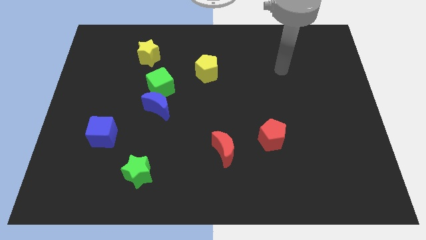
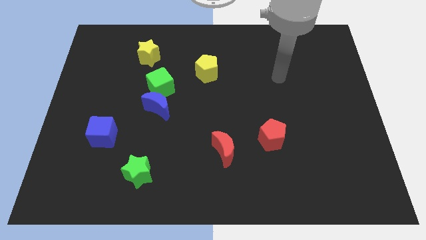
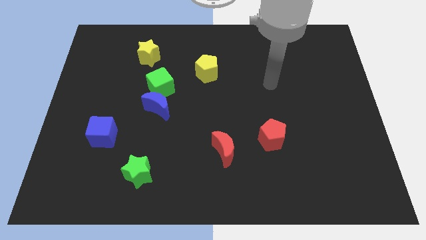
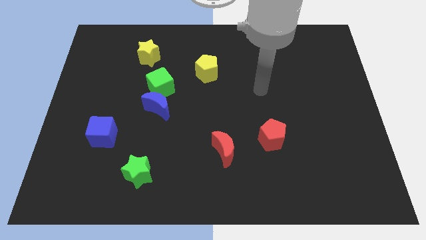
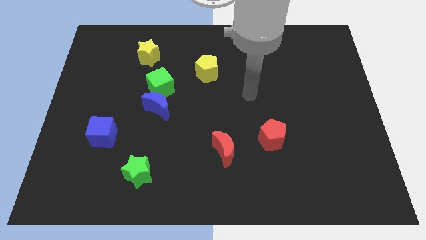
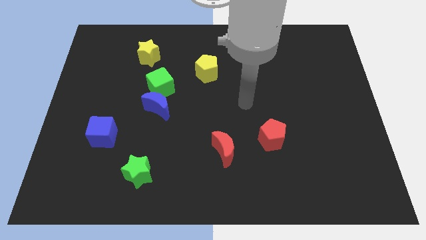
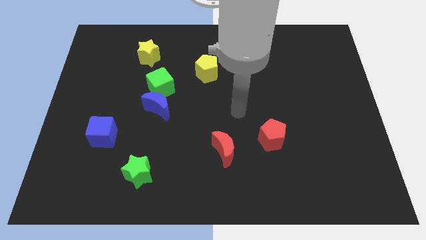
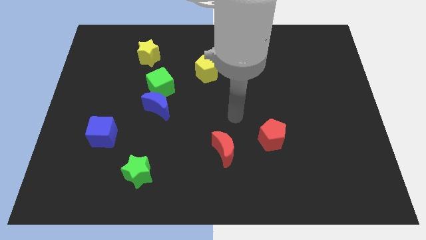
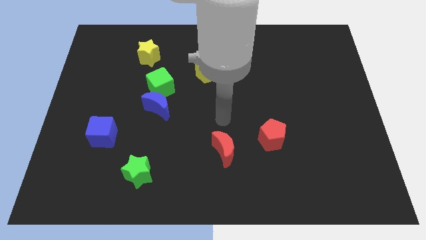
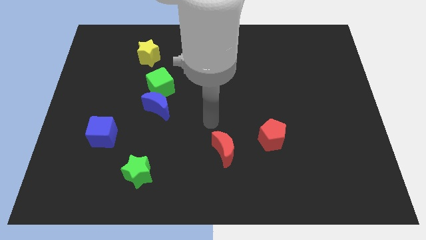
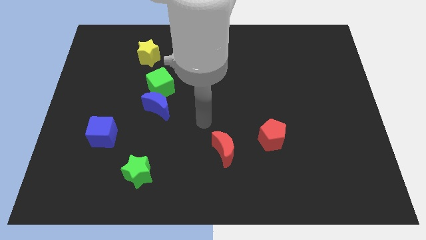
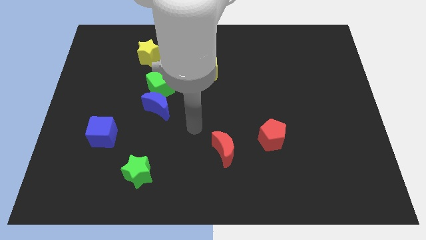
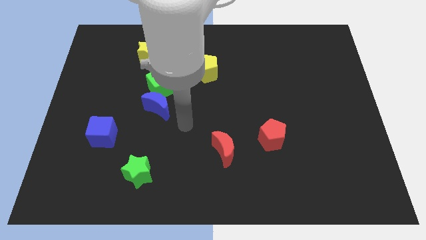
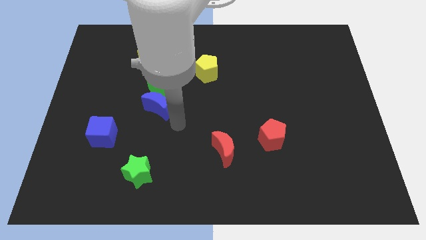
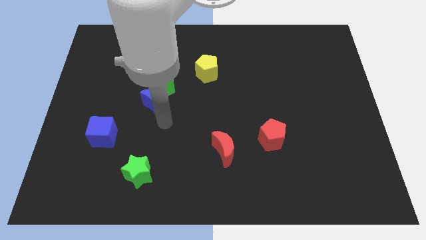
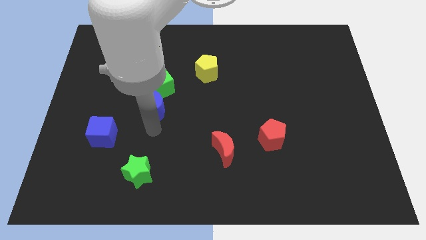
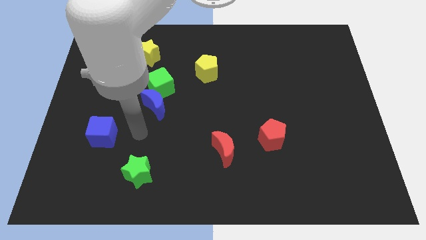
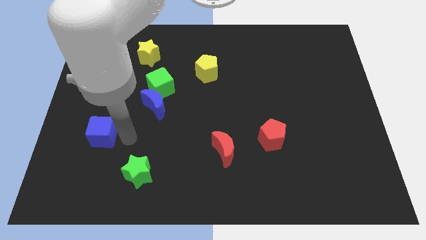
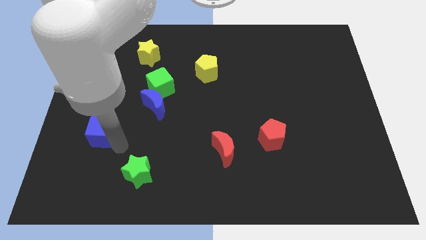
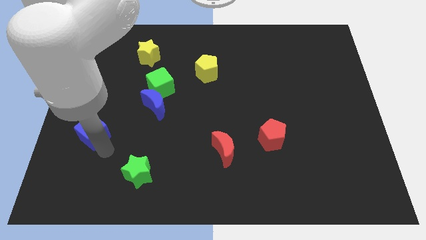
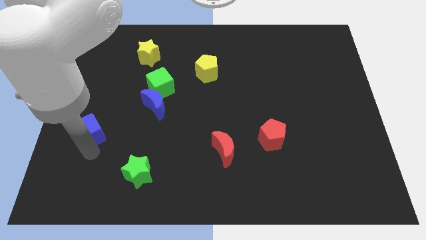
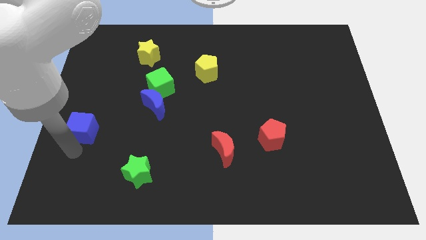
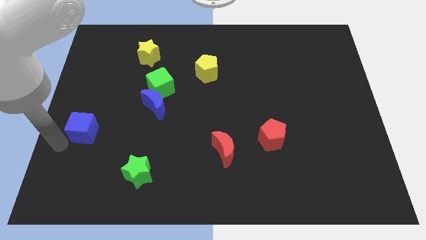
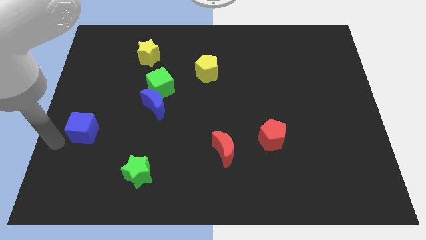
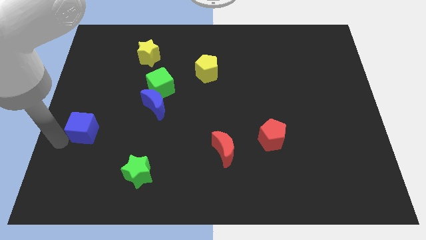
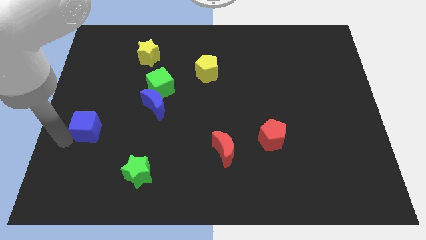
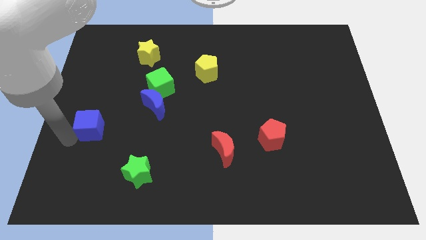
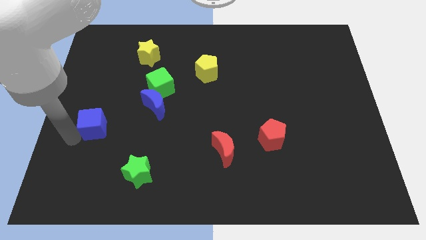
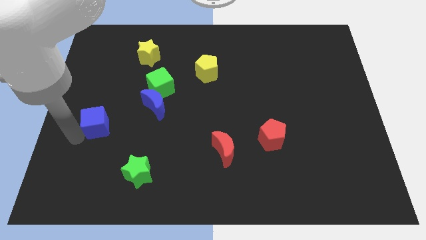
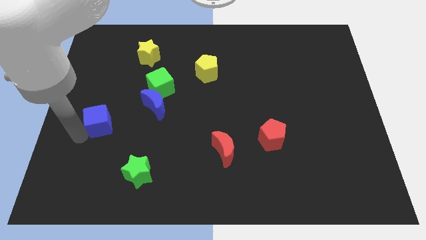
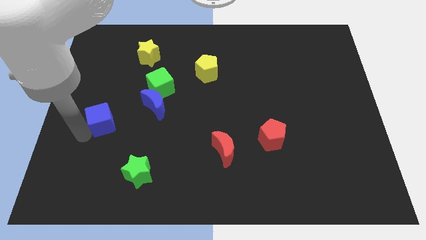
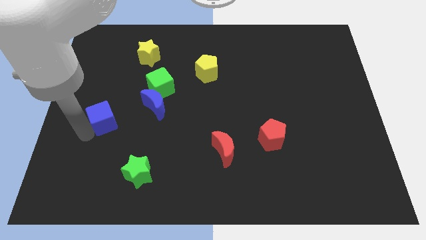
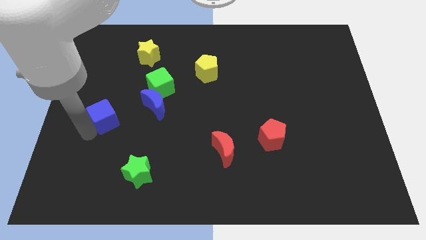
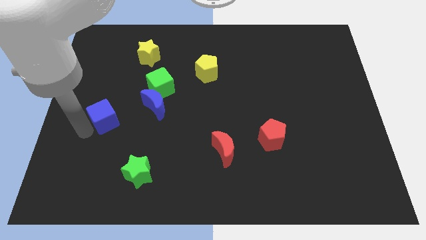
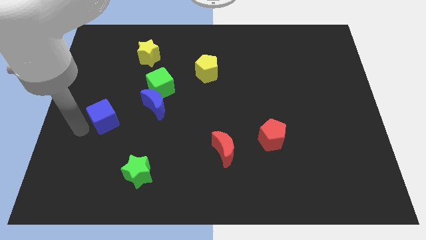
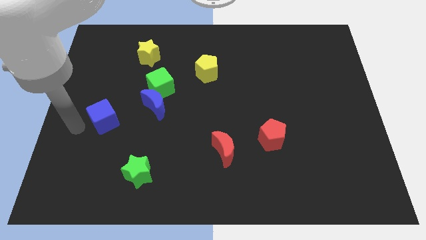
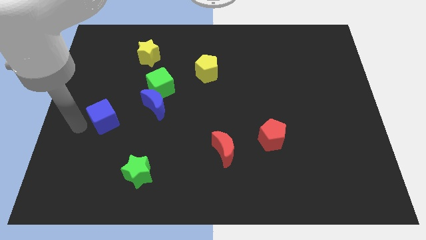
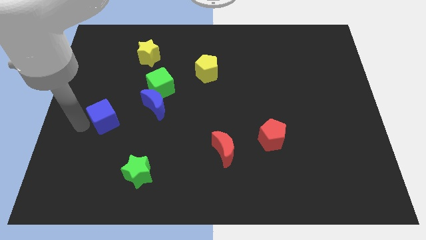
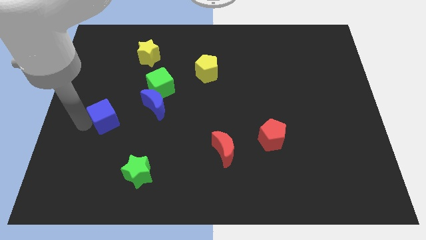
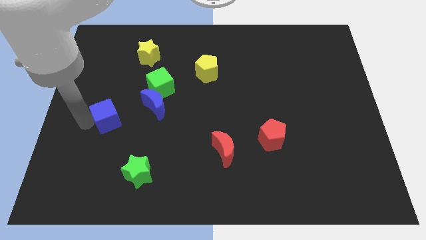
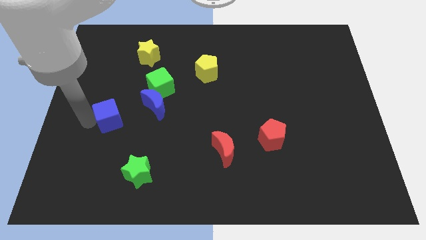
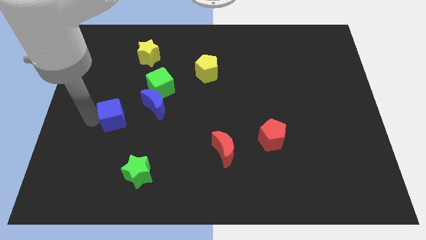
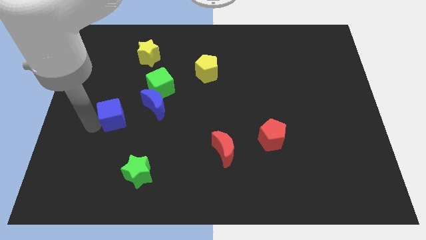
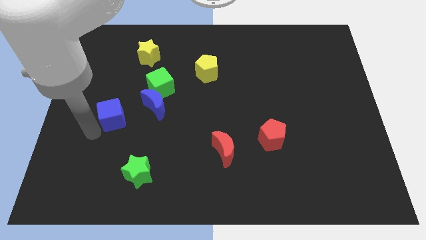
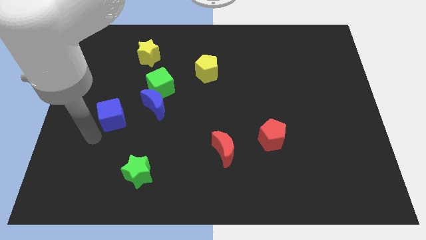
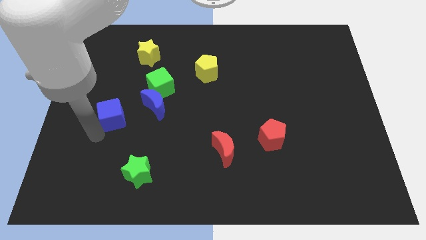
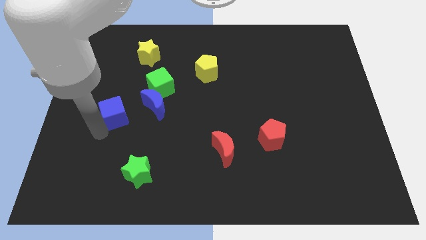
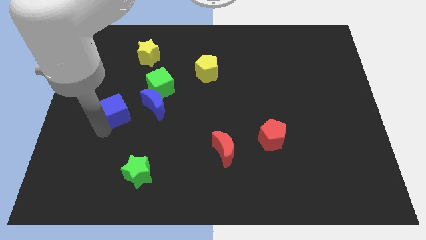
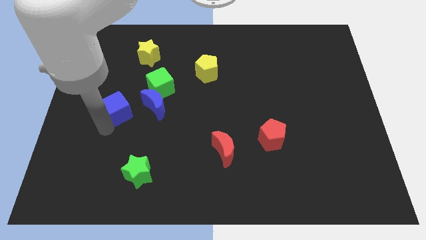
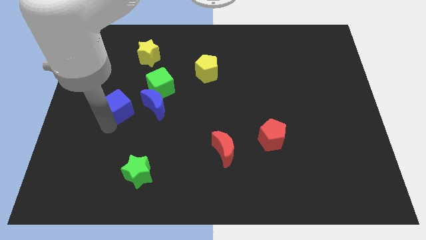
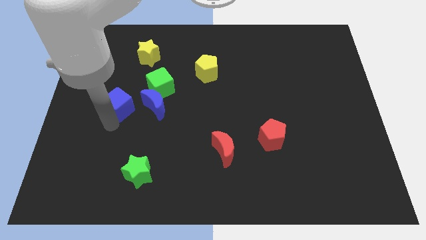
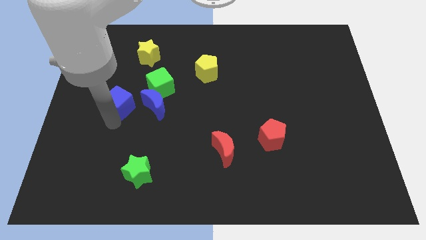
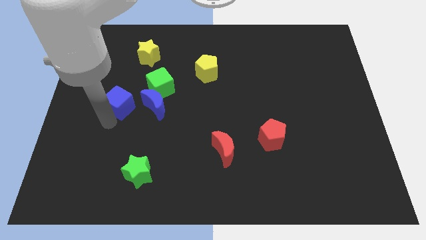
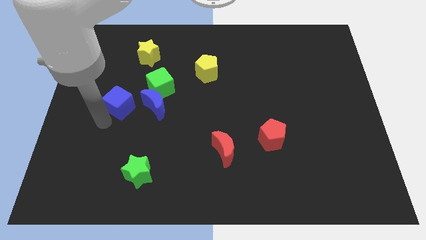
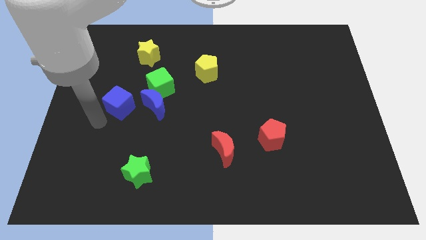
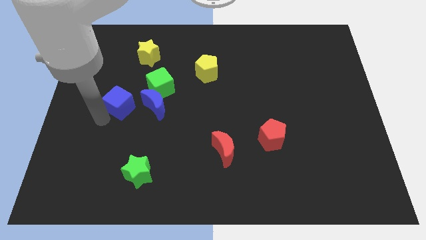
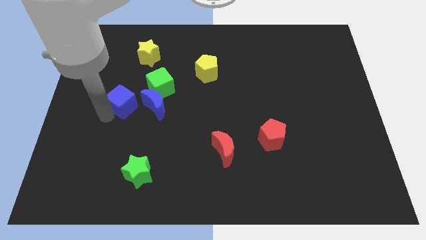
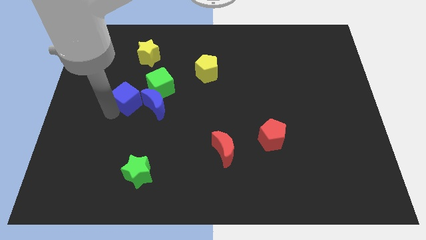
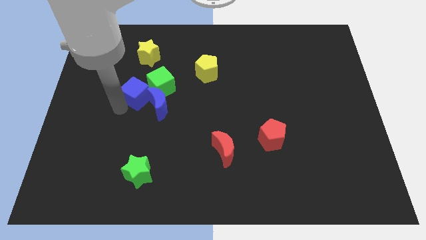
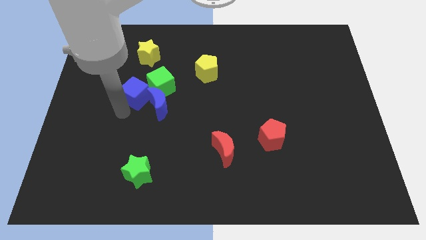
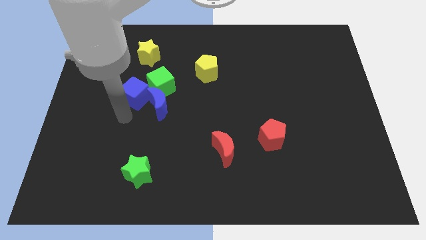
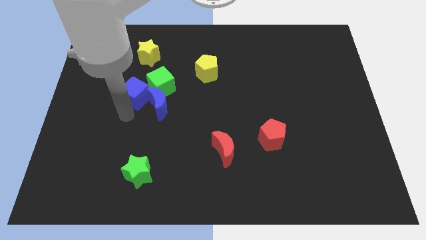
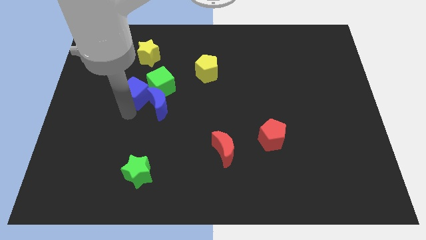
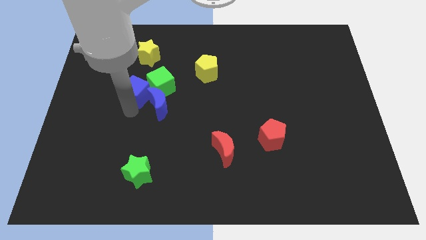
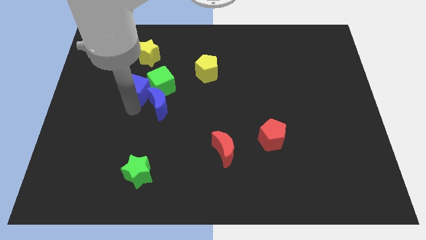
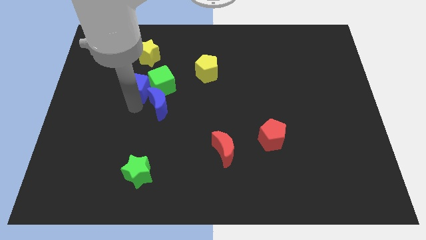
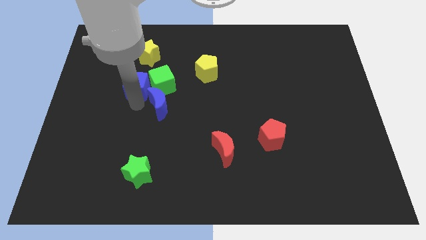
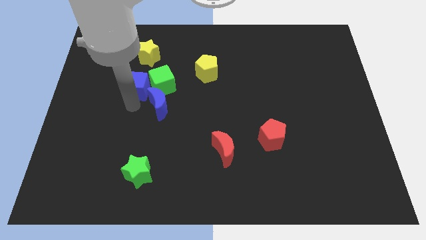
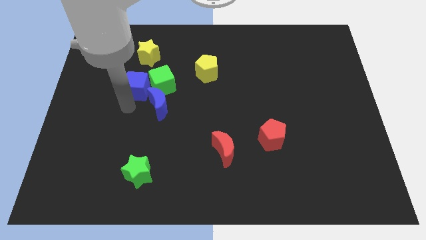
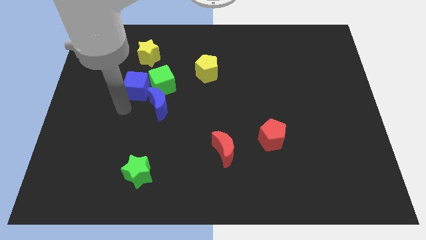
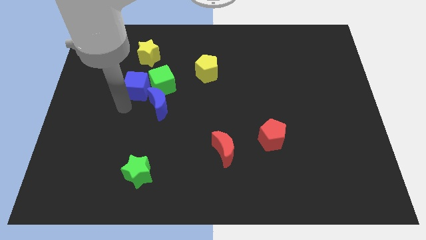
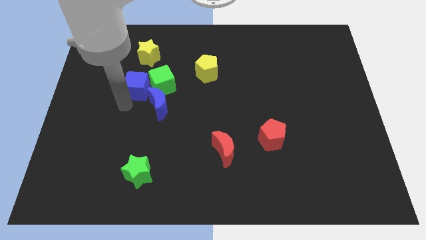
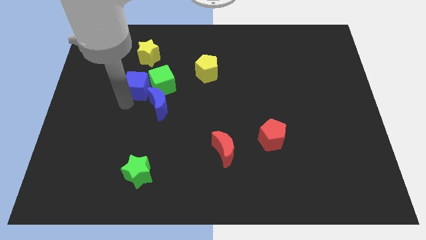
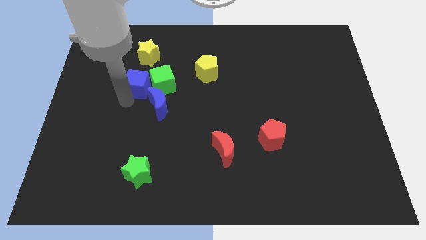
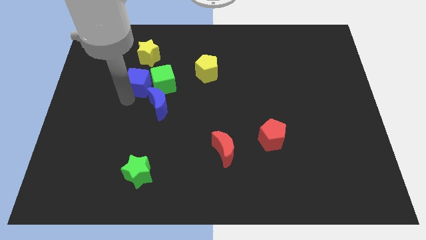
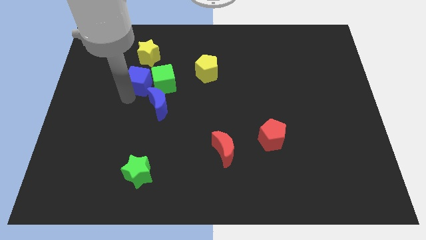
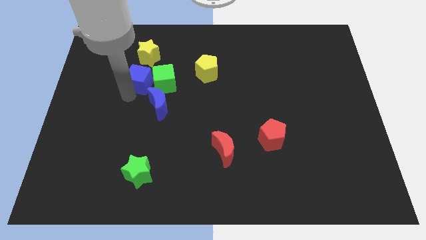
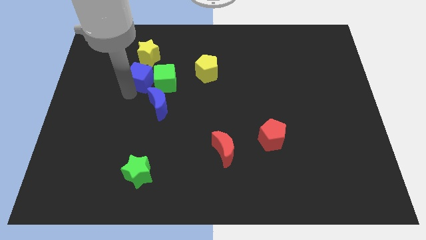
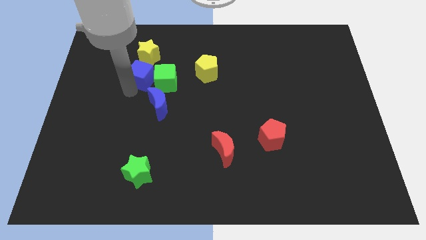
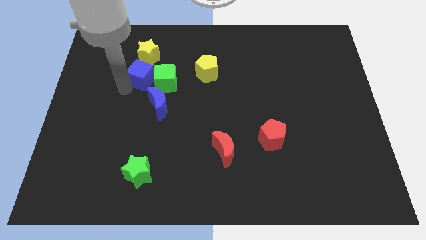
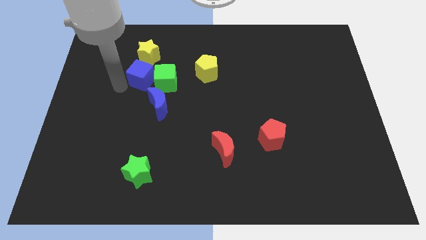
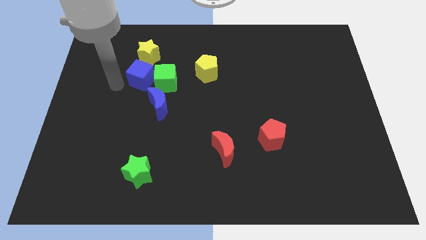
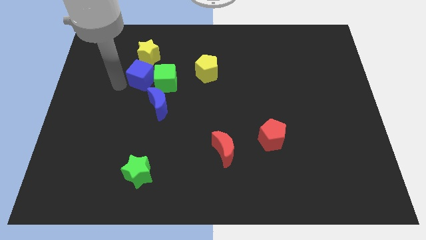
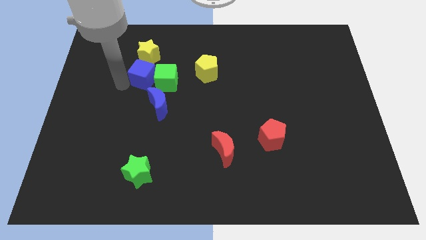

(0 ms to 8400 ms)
slide the blue cube above the blue moon
